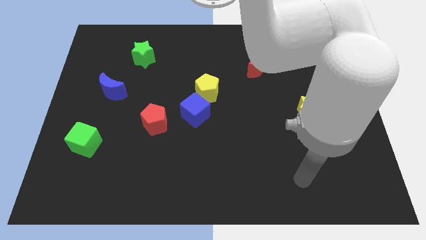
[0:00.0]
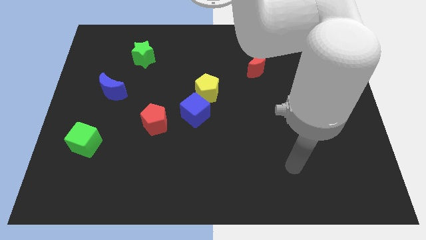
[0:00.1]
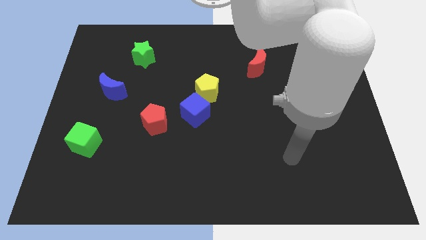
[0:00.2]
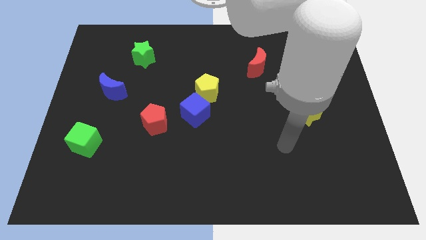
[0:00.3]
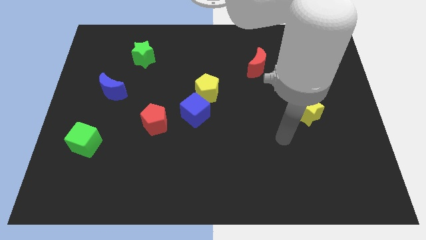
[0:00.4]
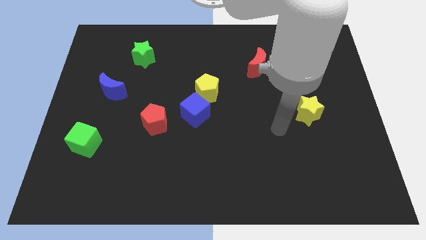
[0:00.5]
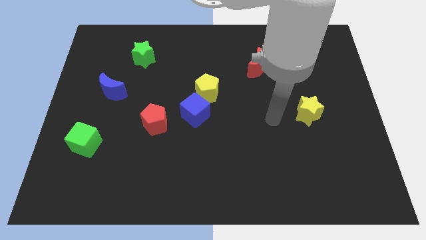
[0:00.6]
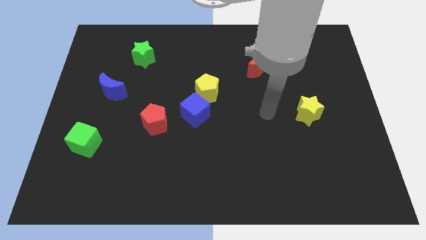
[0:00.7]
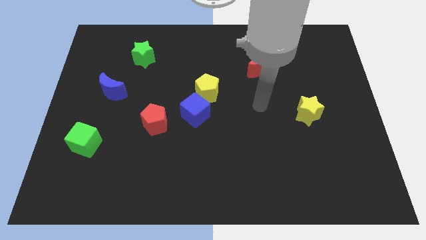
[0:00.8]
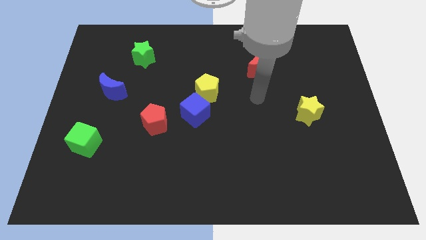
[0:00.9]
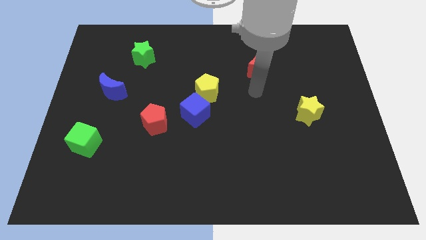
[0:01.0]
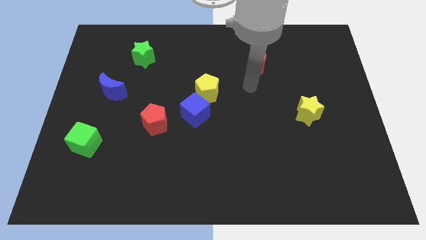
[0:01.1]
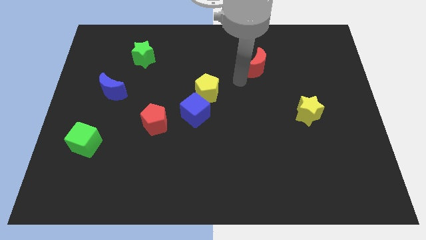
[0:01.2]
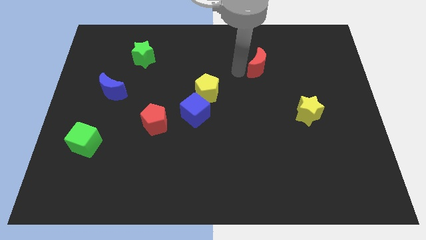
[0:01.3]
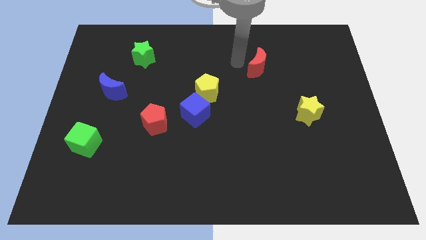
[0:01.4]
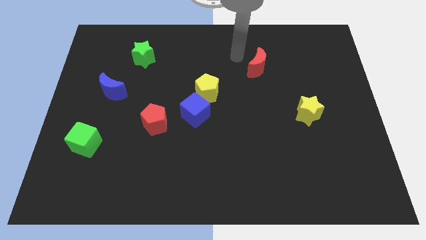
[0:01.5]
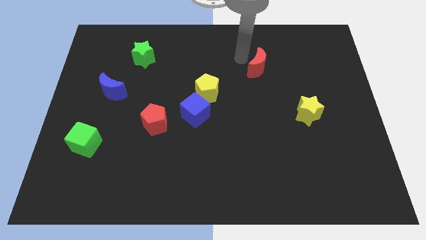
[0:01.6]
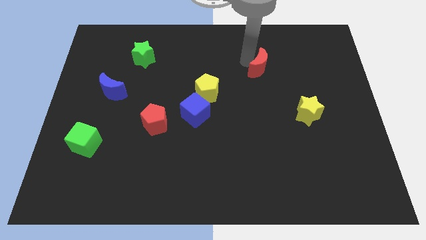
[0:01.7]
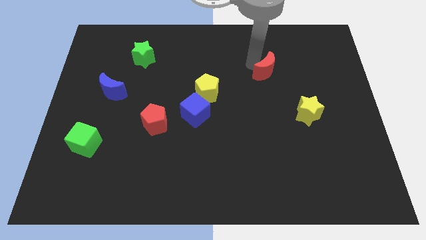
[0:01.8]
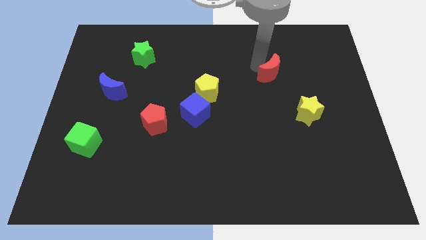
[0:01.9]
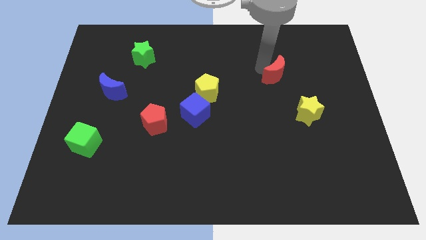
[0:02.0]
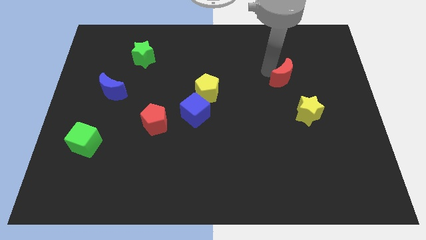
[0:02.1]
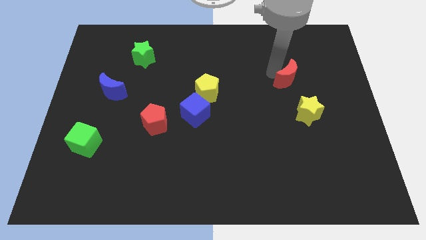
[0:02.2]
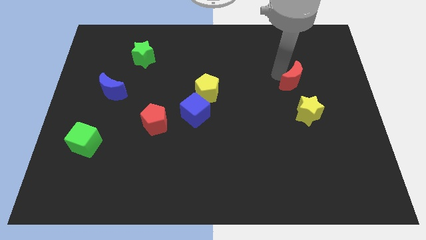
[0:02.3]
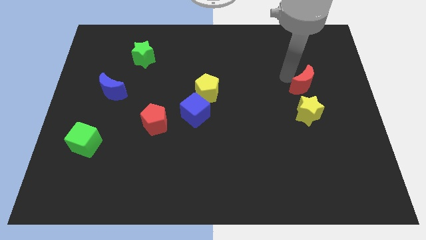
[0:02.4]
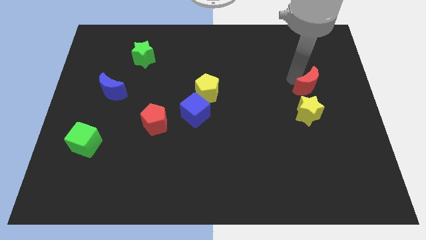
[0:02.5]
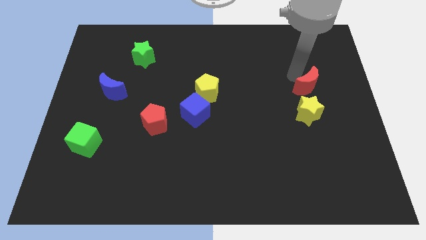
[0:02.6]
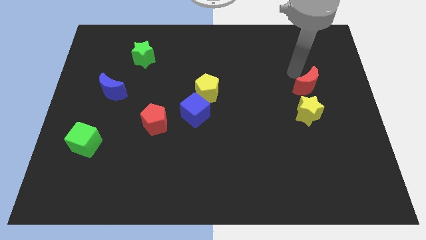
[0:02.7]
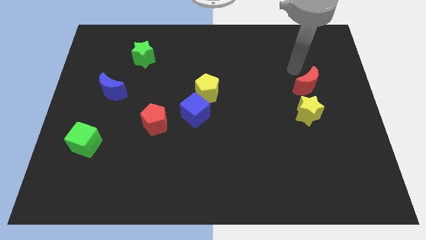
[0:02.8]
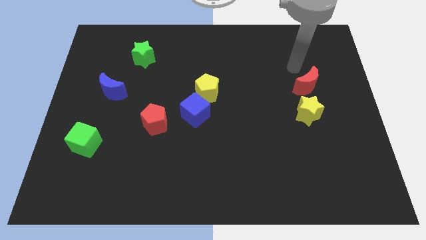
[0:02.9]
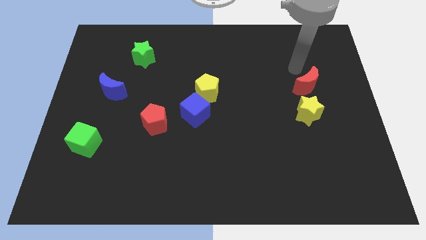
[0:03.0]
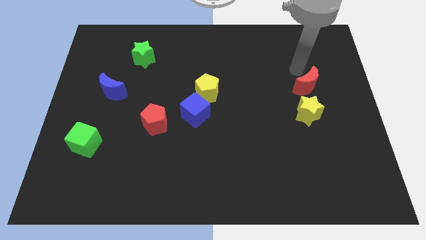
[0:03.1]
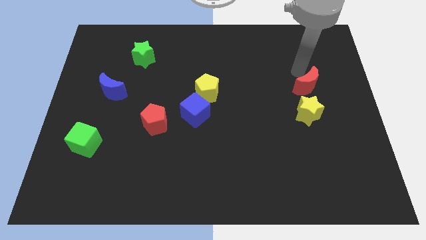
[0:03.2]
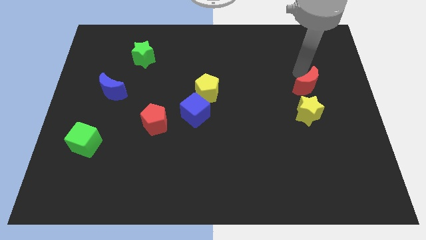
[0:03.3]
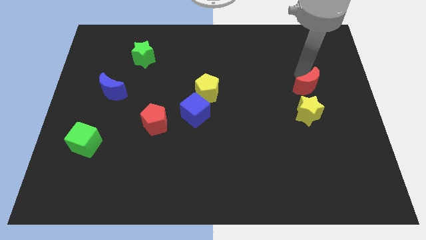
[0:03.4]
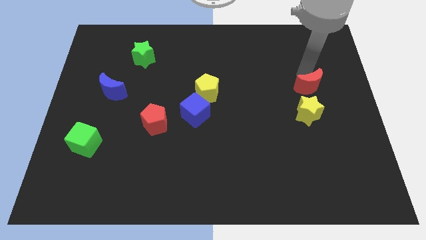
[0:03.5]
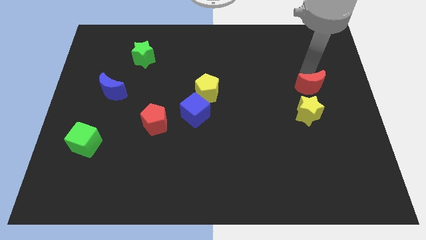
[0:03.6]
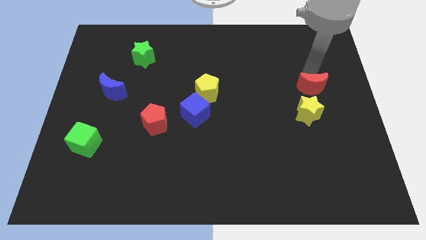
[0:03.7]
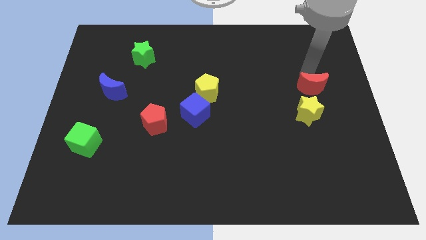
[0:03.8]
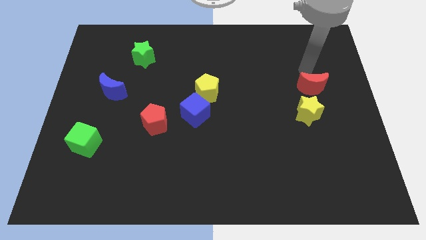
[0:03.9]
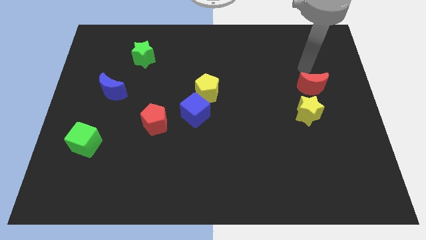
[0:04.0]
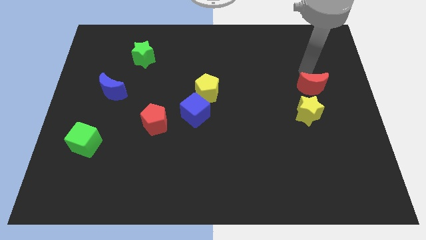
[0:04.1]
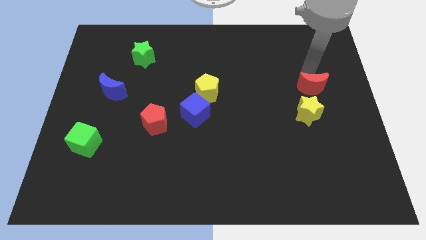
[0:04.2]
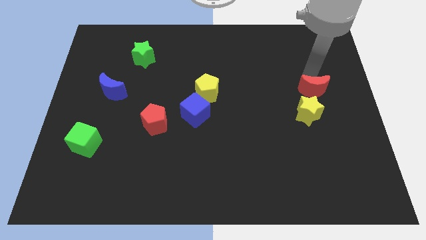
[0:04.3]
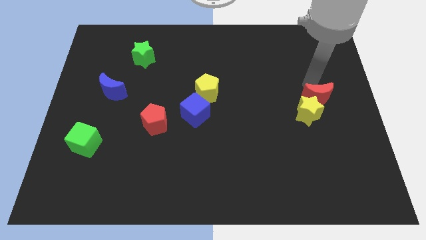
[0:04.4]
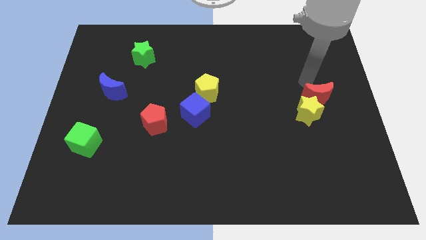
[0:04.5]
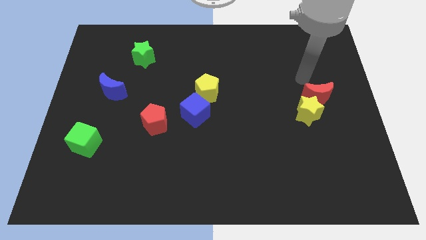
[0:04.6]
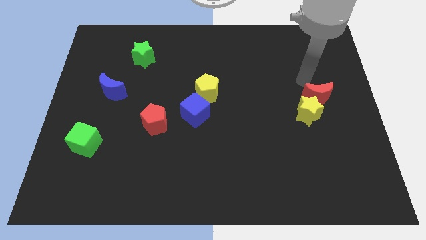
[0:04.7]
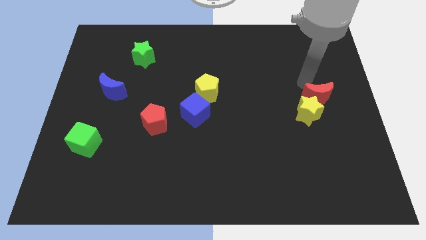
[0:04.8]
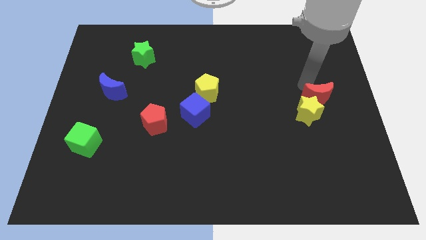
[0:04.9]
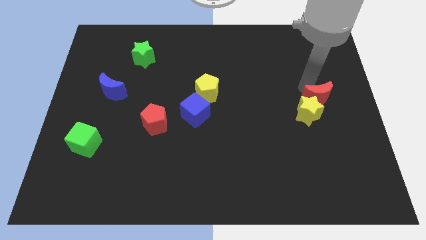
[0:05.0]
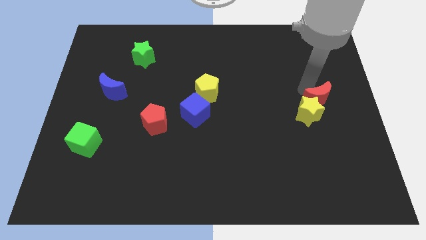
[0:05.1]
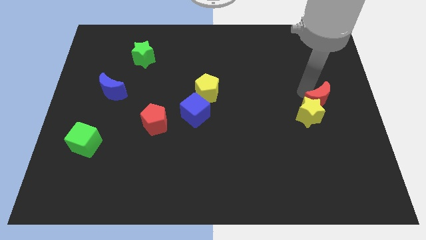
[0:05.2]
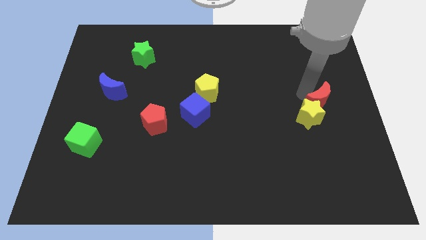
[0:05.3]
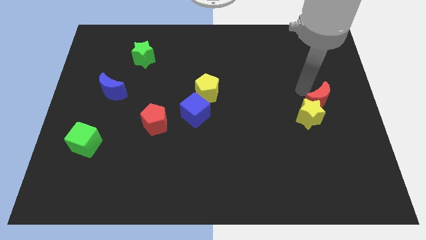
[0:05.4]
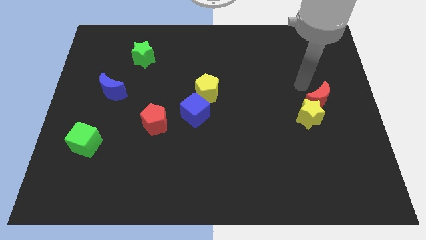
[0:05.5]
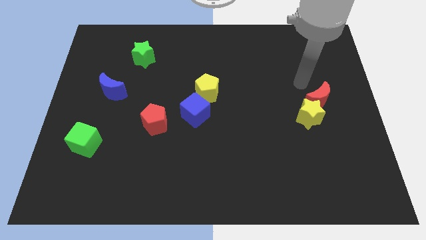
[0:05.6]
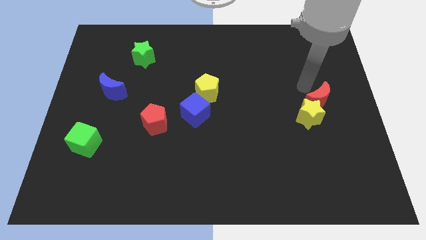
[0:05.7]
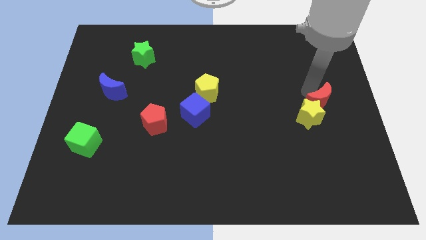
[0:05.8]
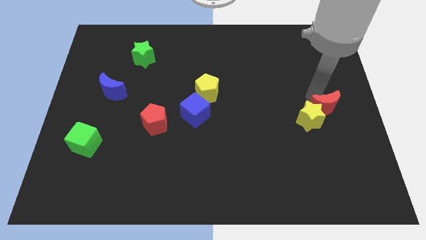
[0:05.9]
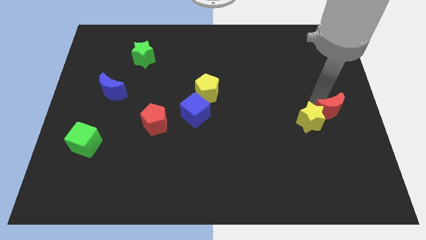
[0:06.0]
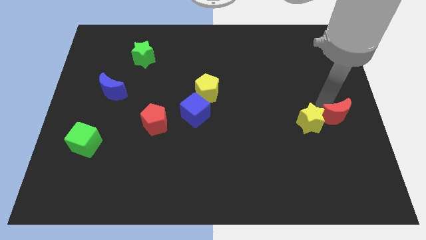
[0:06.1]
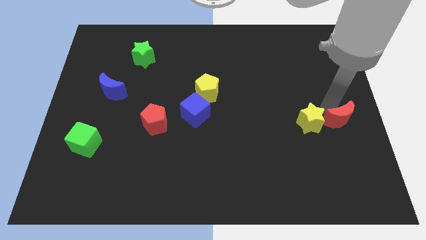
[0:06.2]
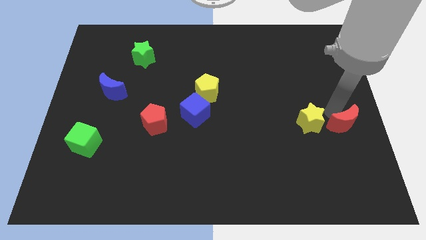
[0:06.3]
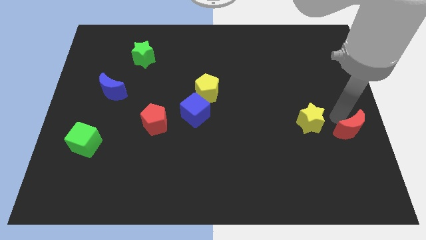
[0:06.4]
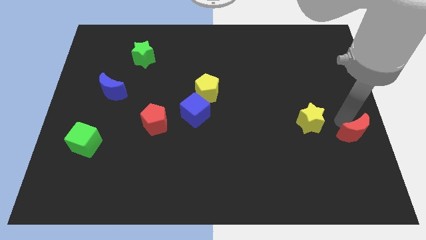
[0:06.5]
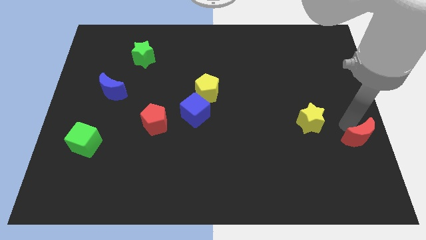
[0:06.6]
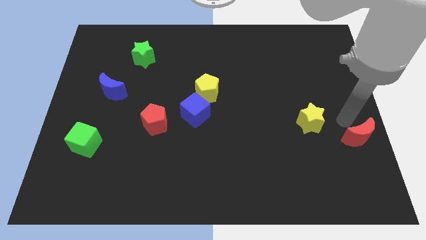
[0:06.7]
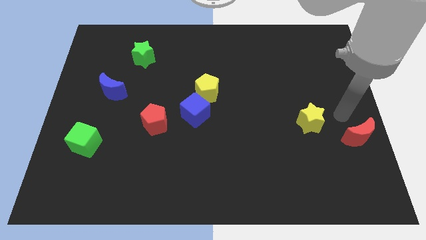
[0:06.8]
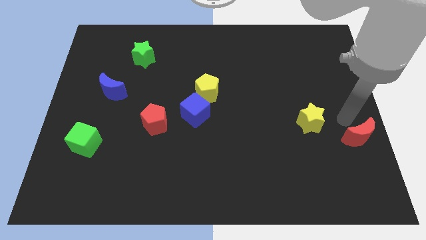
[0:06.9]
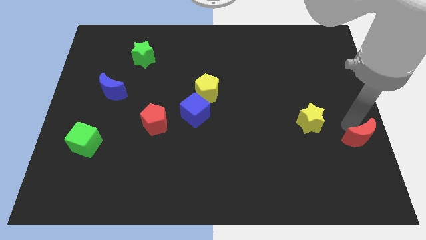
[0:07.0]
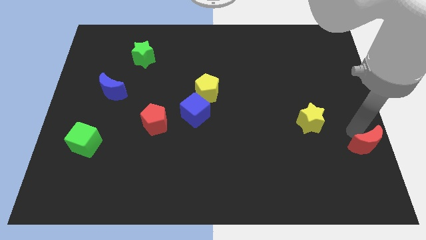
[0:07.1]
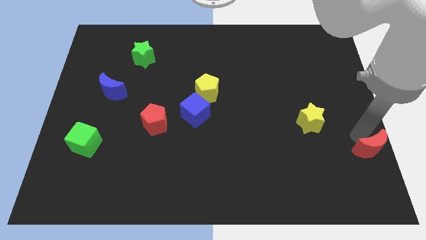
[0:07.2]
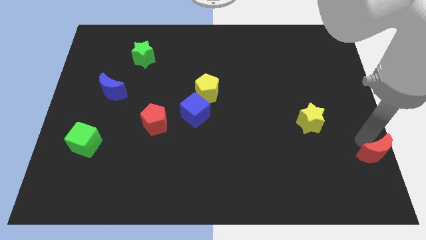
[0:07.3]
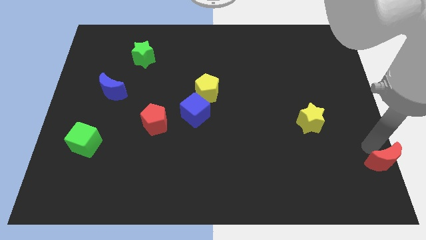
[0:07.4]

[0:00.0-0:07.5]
slide the red moon to the lower right corner
